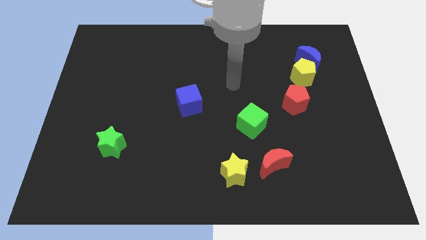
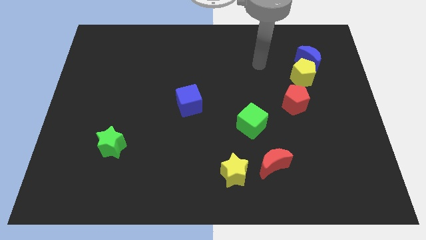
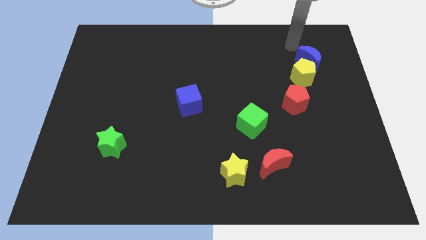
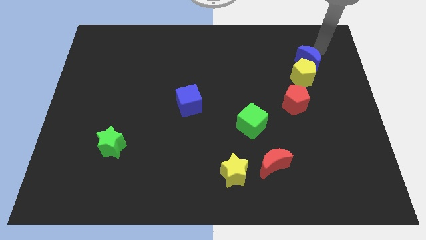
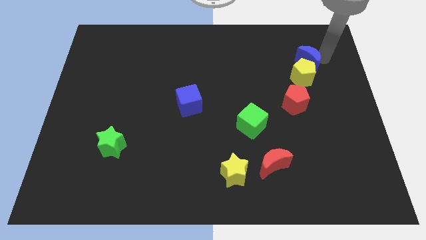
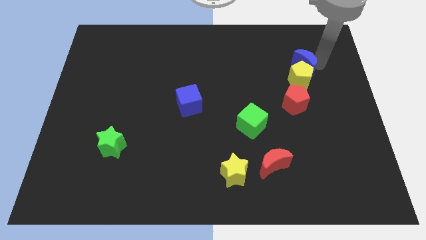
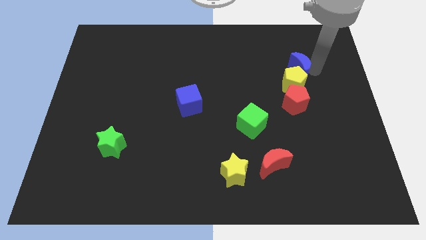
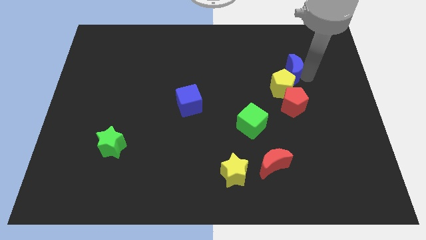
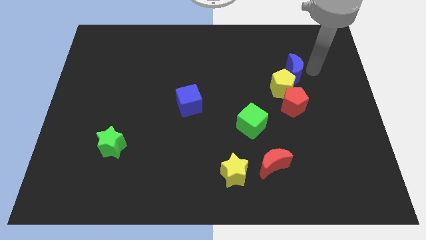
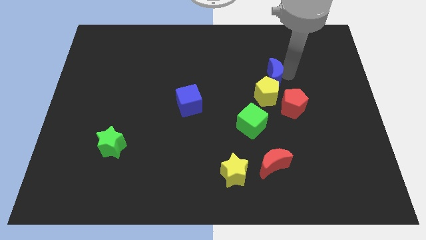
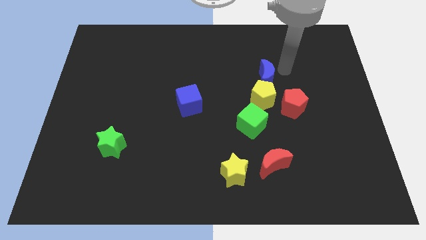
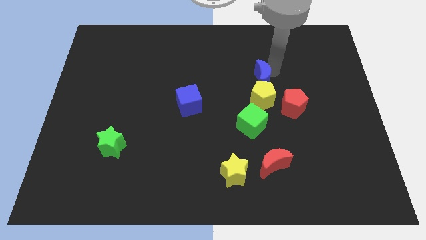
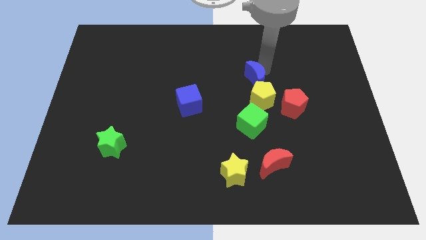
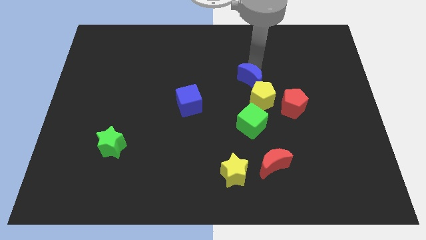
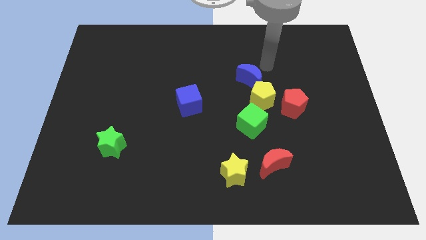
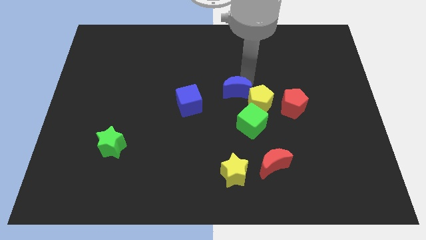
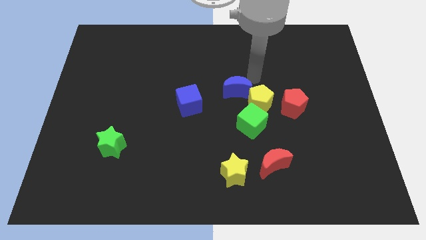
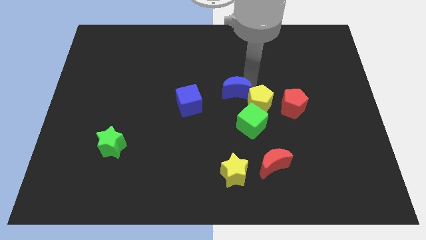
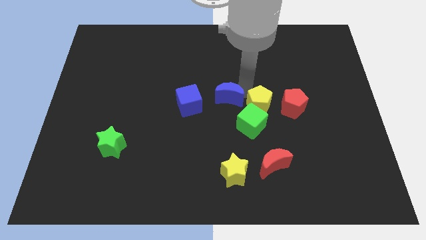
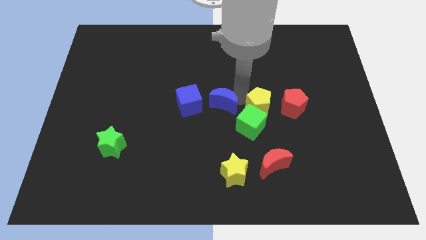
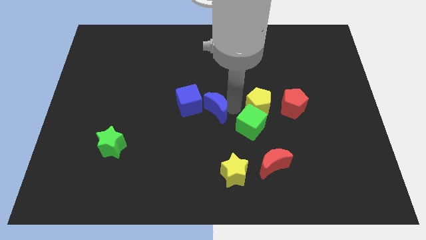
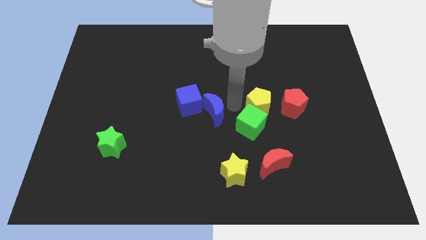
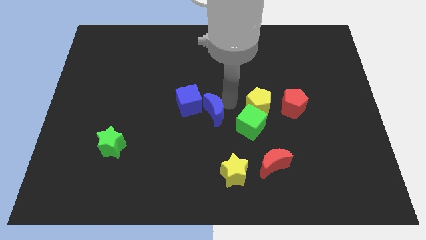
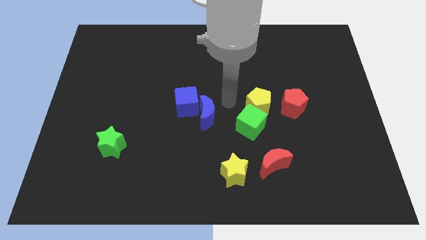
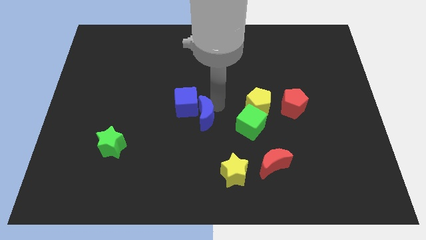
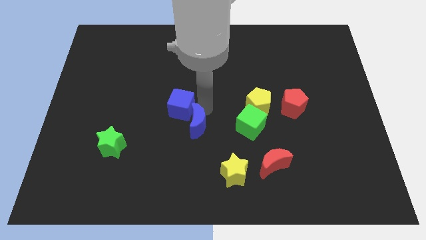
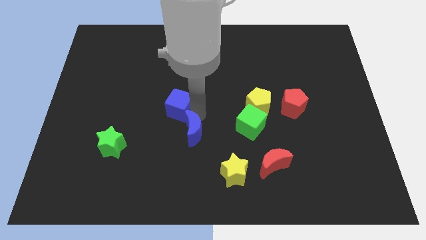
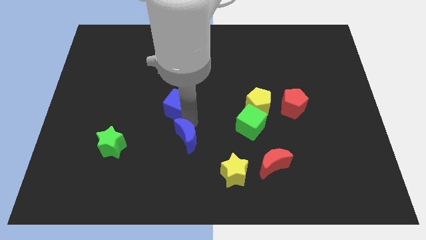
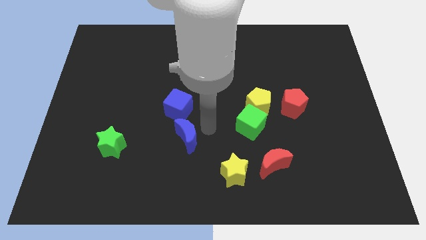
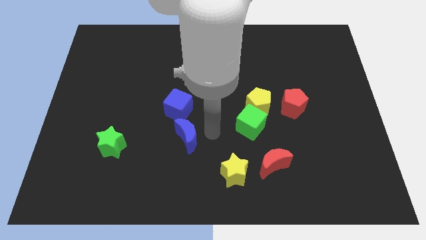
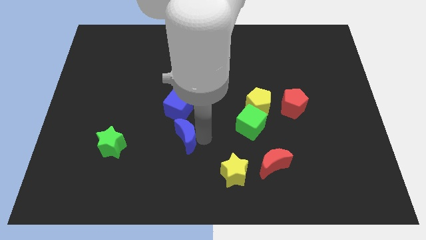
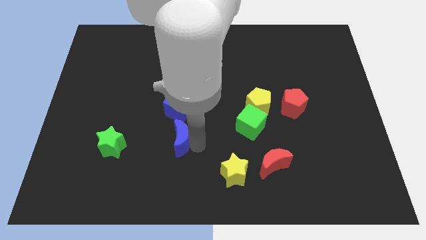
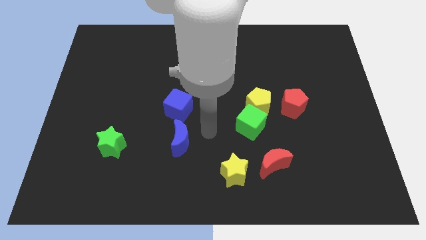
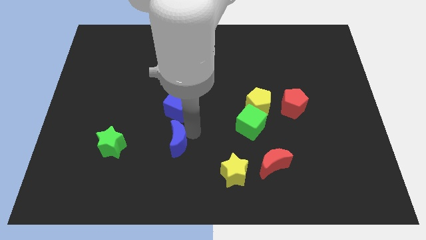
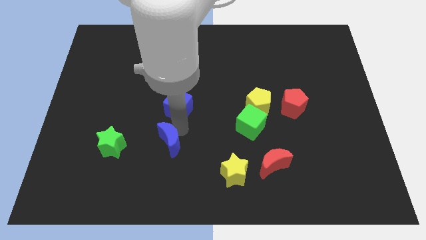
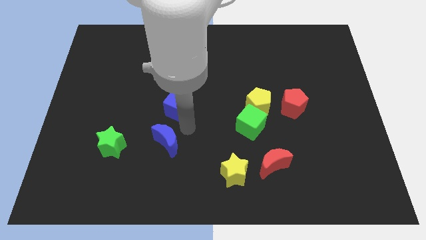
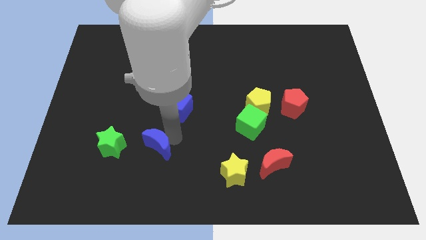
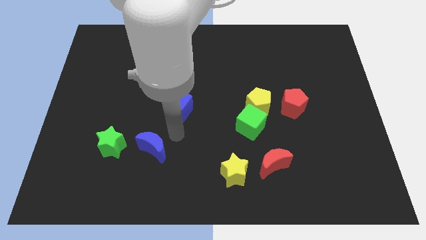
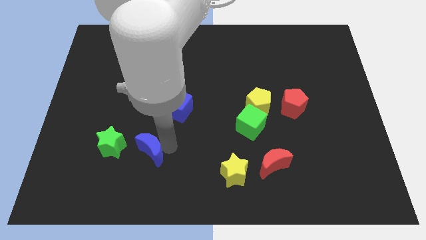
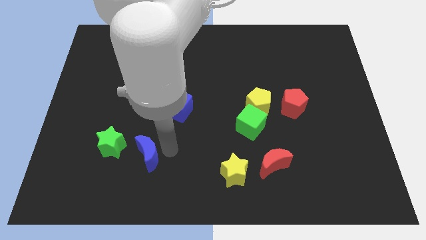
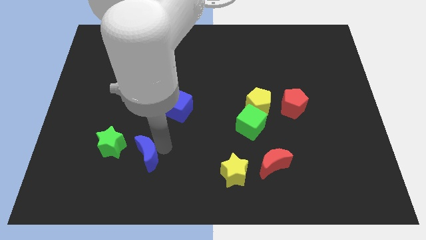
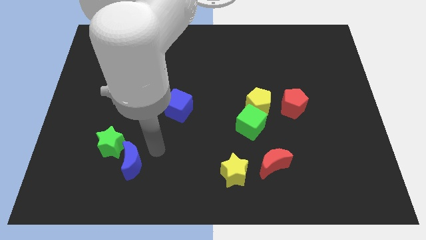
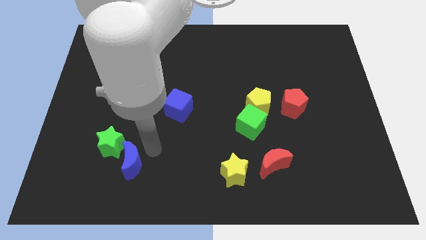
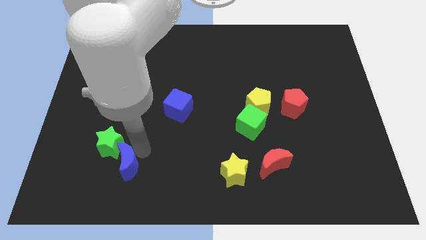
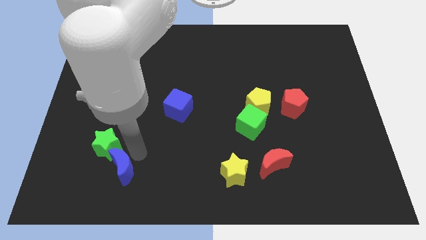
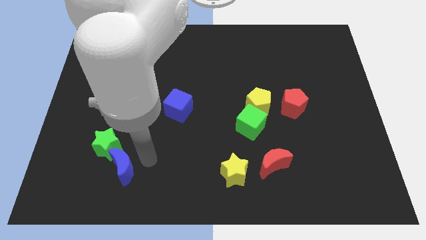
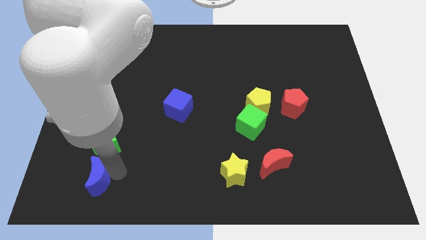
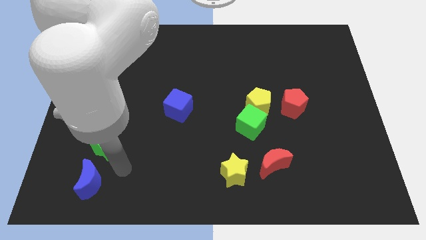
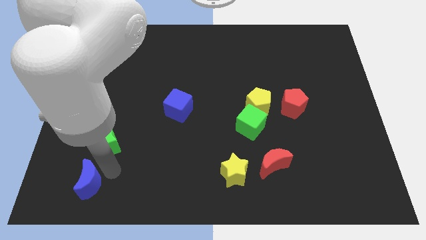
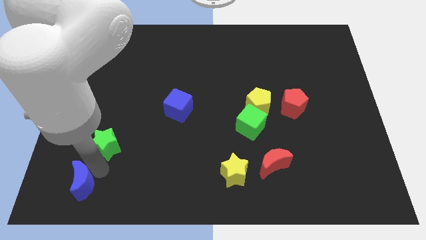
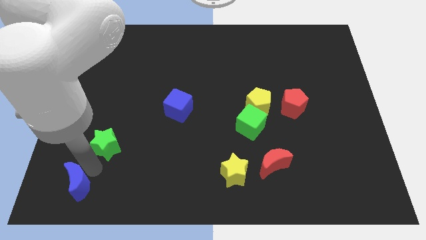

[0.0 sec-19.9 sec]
put the blue moon to the bottom left corner

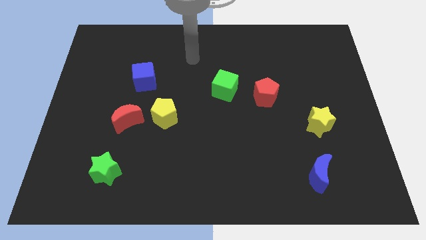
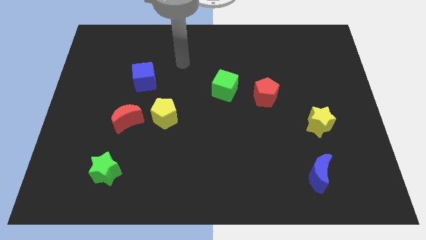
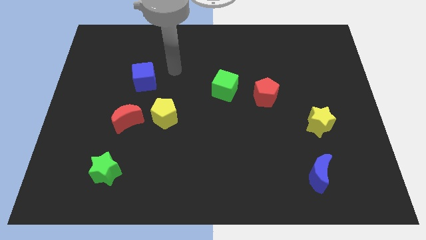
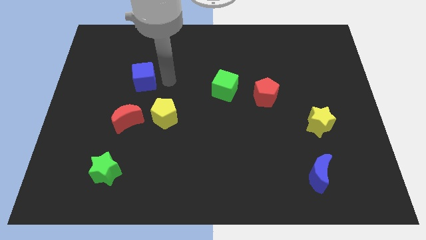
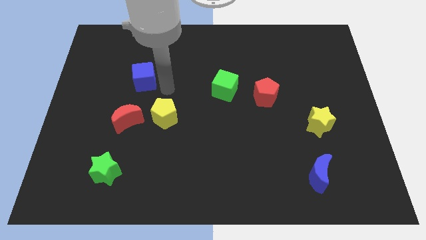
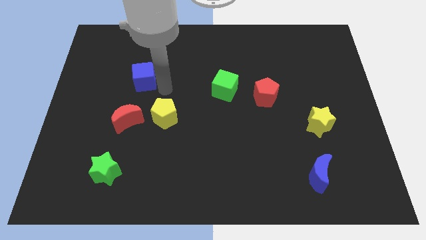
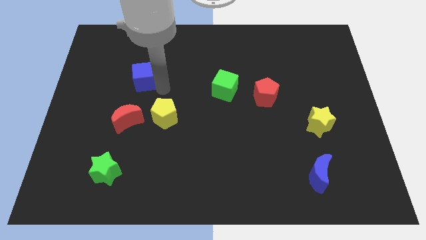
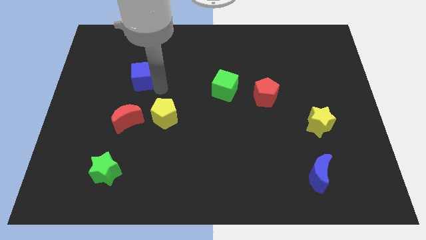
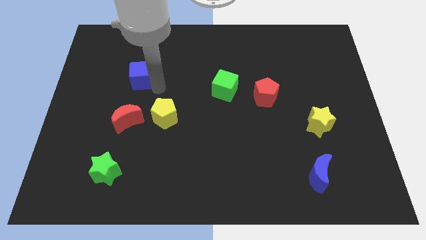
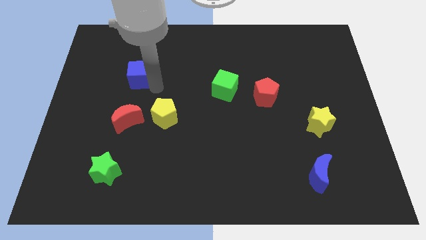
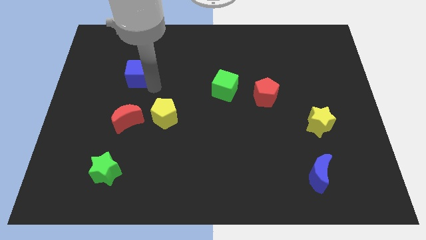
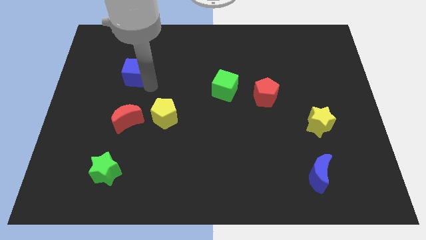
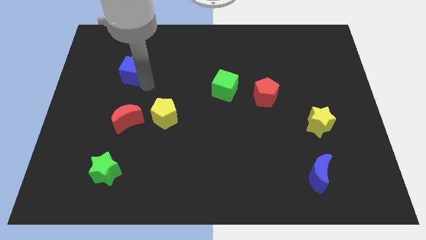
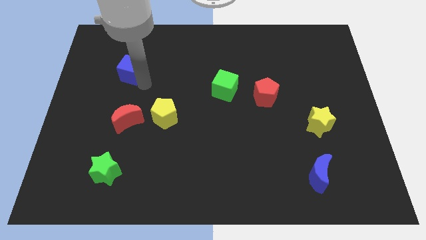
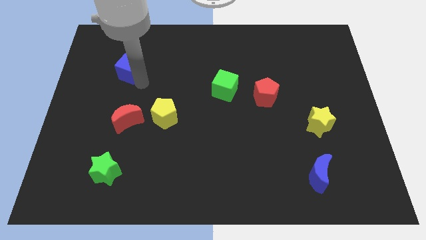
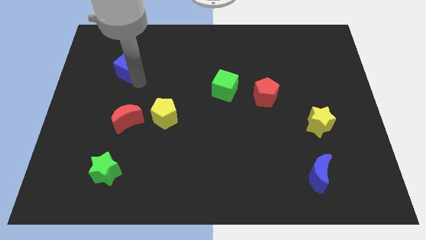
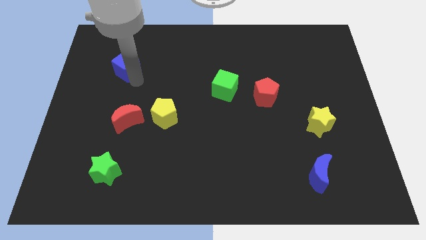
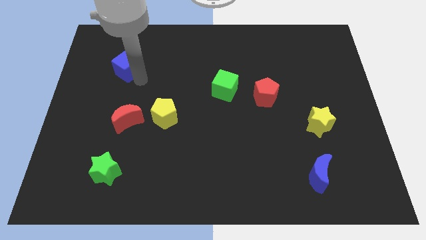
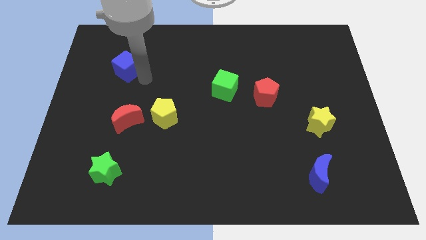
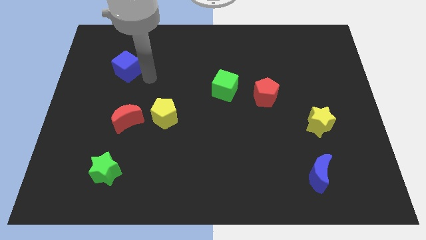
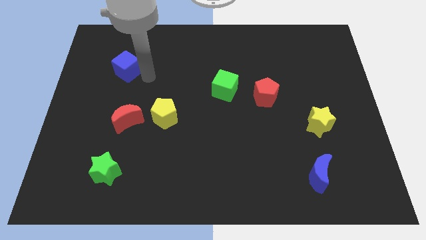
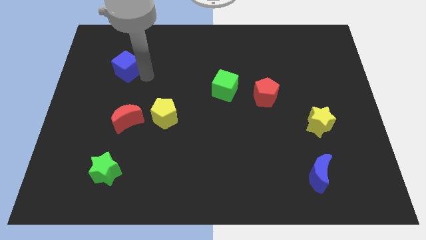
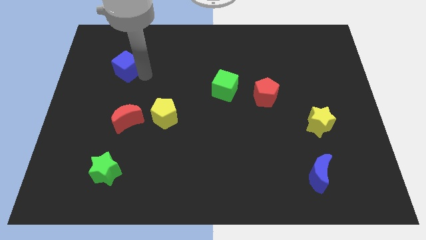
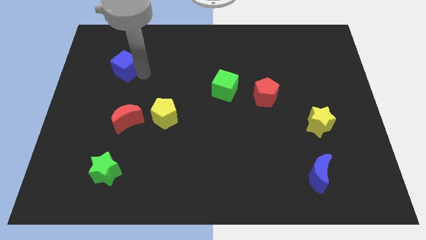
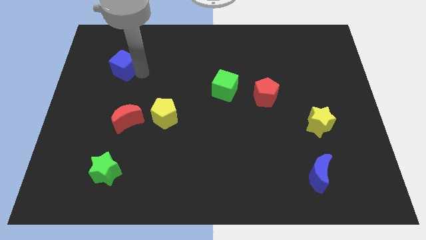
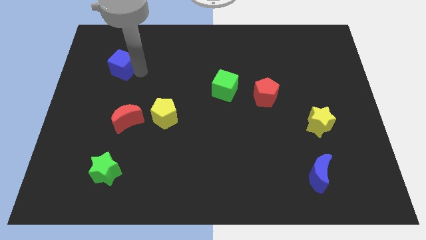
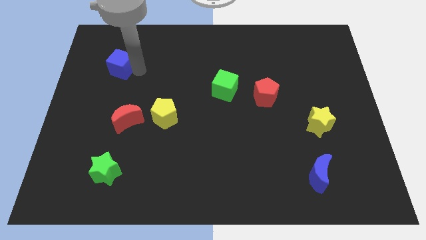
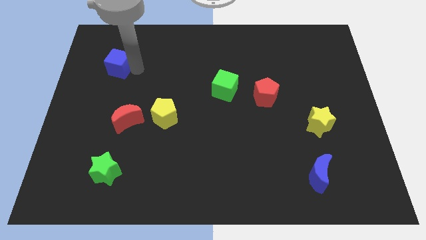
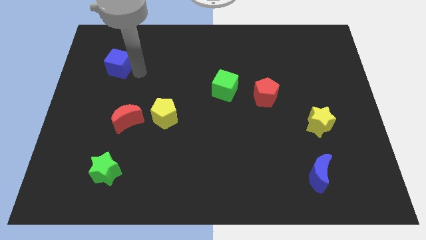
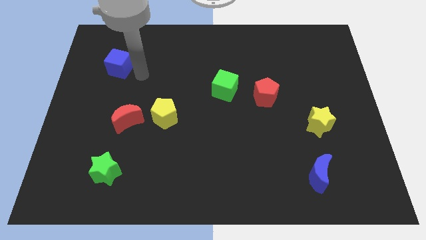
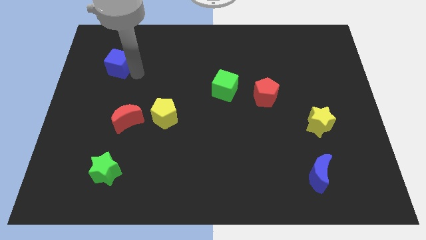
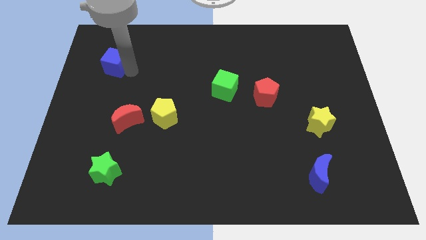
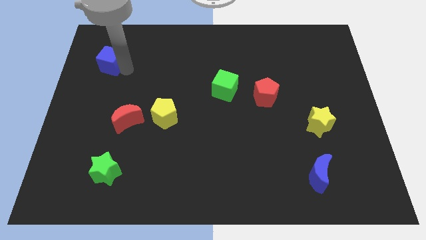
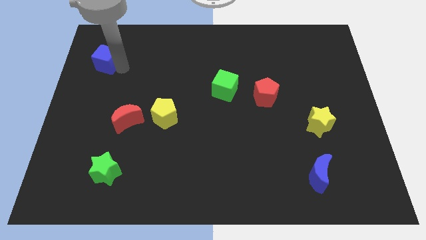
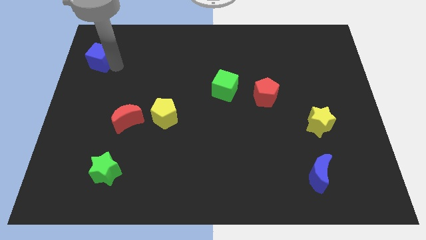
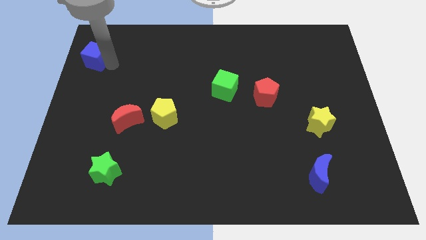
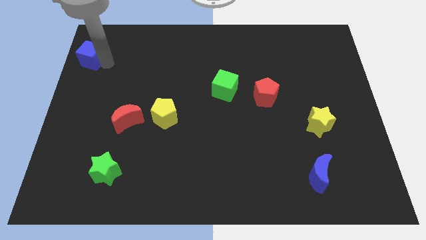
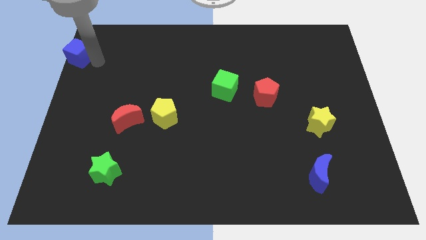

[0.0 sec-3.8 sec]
put the blue cube to the top left corner
